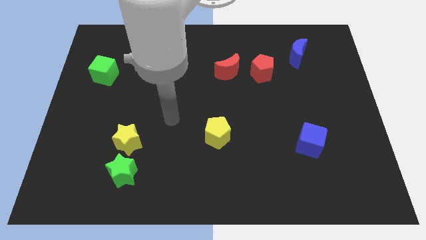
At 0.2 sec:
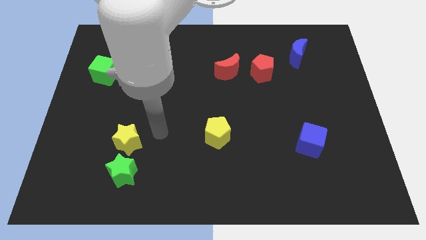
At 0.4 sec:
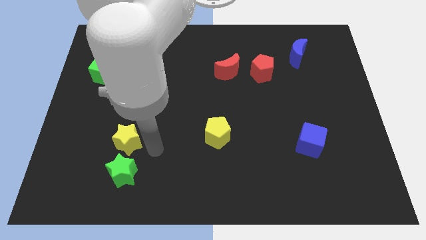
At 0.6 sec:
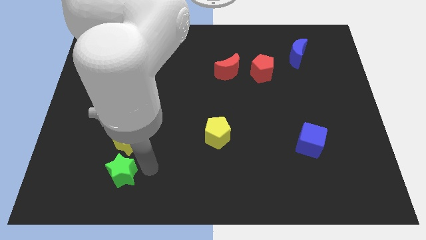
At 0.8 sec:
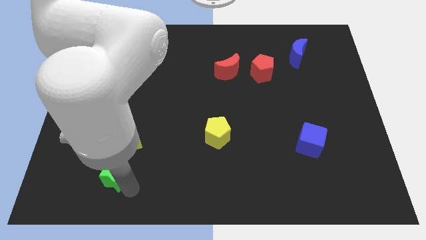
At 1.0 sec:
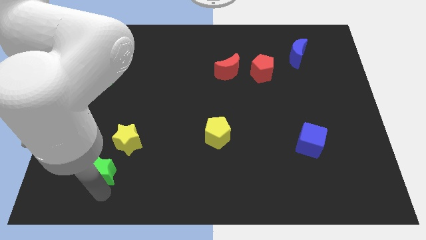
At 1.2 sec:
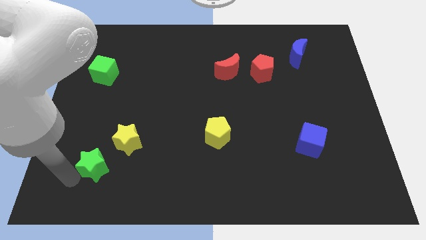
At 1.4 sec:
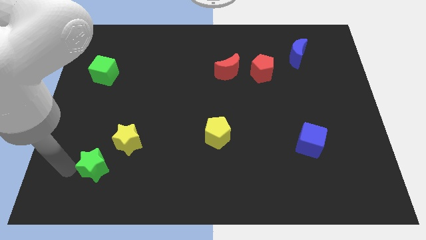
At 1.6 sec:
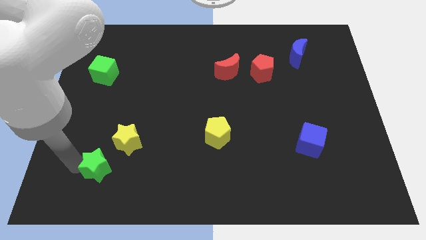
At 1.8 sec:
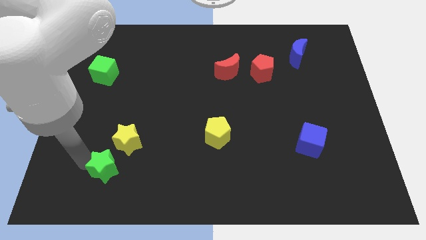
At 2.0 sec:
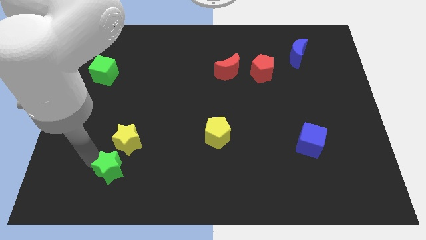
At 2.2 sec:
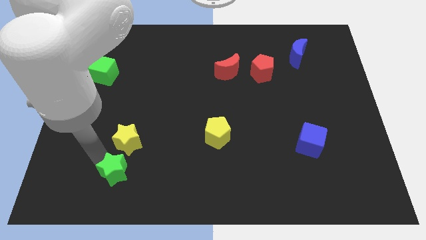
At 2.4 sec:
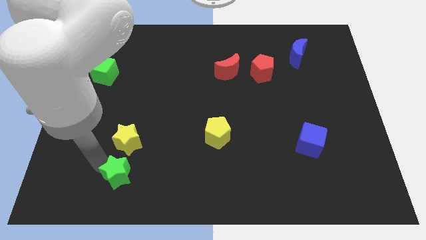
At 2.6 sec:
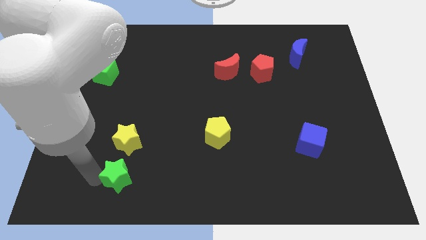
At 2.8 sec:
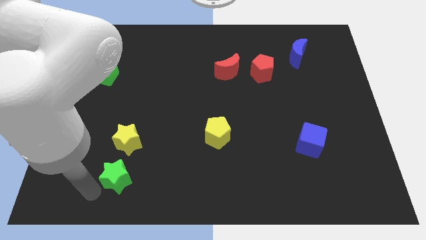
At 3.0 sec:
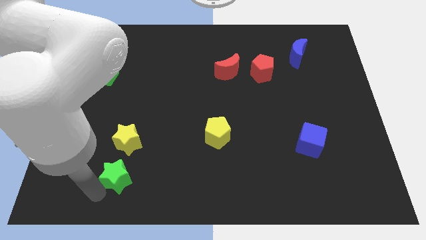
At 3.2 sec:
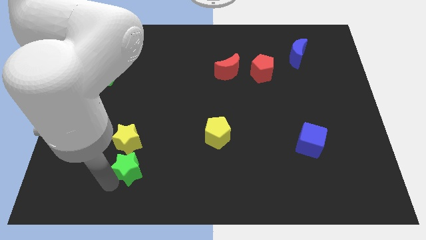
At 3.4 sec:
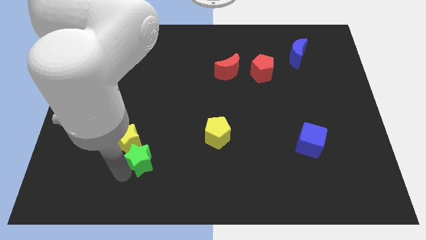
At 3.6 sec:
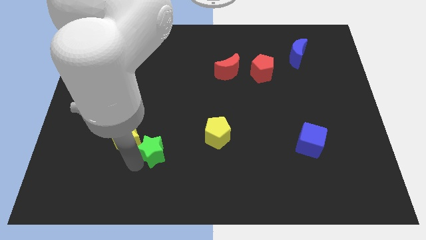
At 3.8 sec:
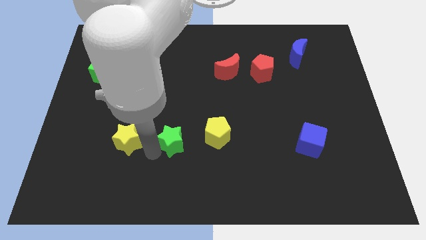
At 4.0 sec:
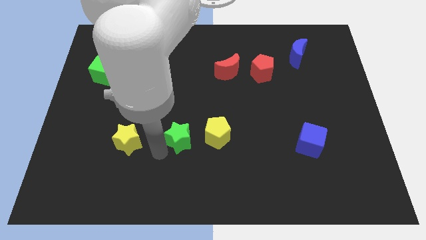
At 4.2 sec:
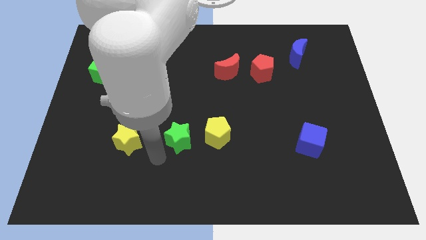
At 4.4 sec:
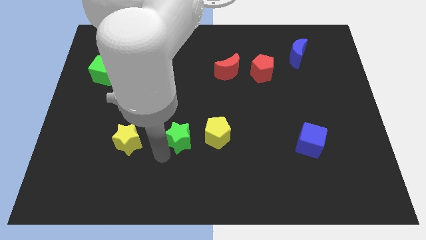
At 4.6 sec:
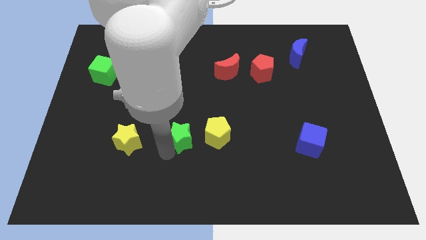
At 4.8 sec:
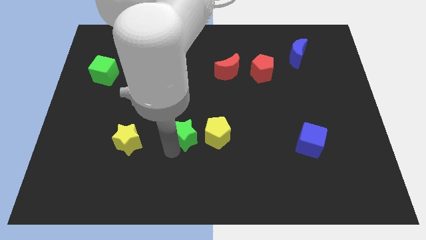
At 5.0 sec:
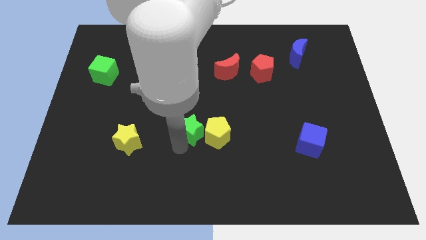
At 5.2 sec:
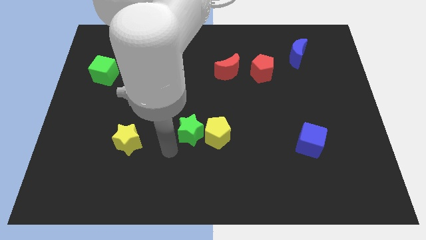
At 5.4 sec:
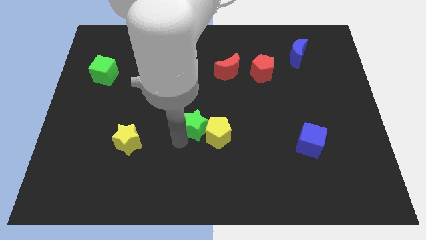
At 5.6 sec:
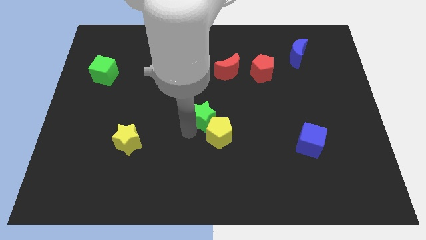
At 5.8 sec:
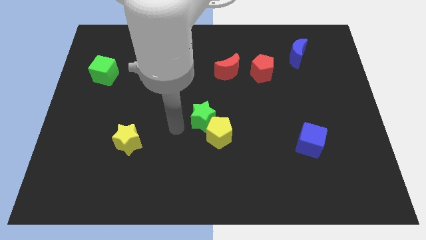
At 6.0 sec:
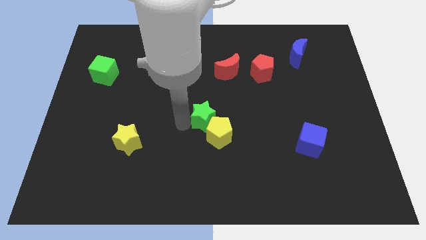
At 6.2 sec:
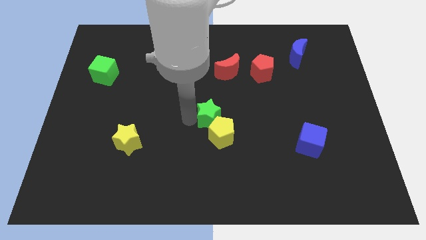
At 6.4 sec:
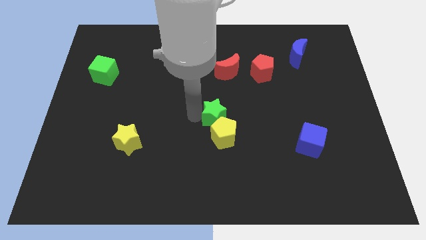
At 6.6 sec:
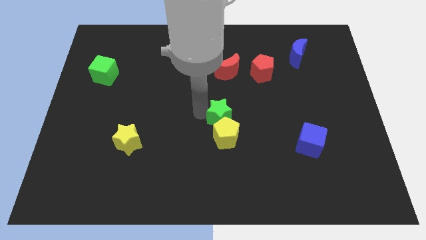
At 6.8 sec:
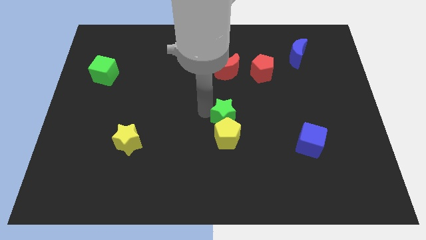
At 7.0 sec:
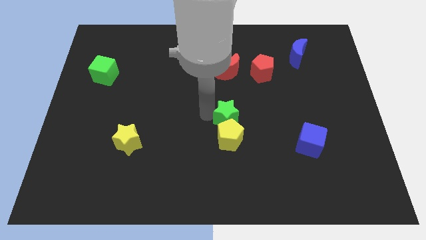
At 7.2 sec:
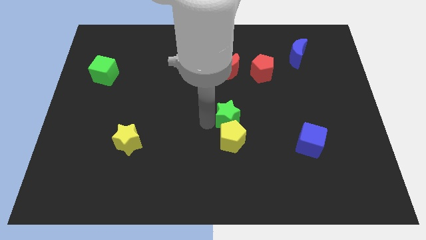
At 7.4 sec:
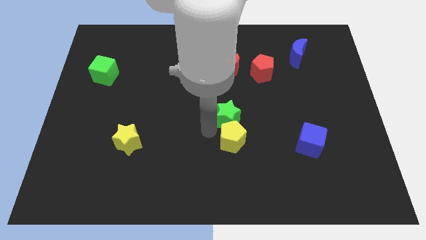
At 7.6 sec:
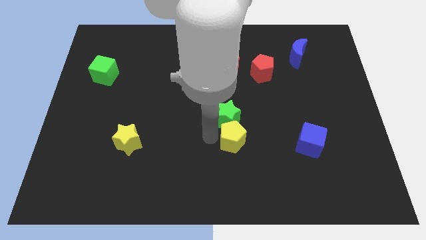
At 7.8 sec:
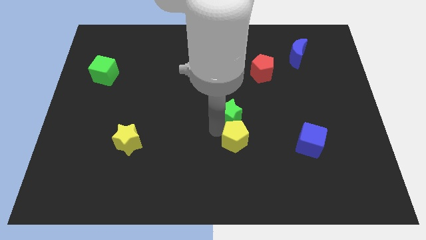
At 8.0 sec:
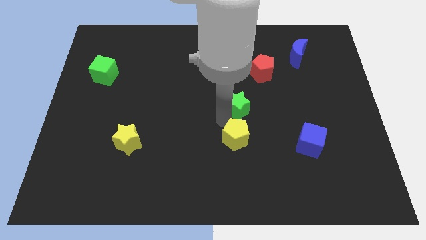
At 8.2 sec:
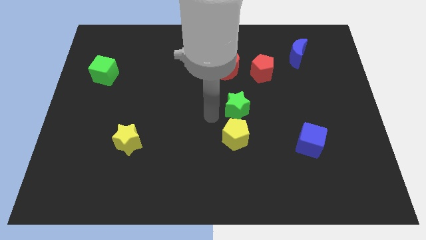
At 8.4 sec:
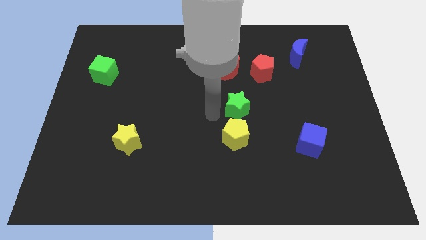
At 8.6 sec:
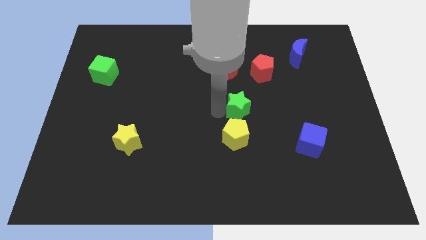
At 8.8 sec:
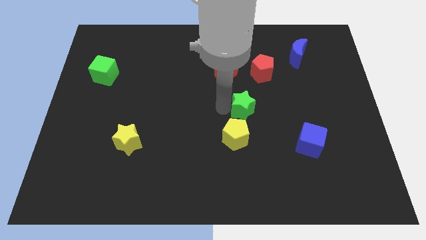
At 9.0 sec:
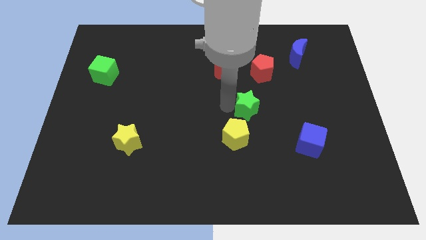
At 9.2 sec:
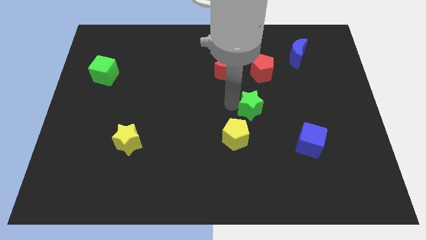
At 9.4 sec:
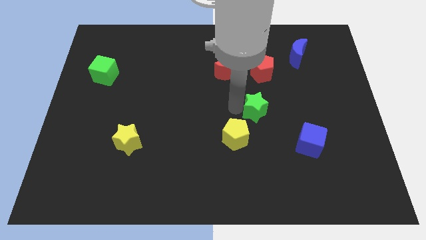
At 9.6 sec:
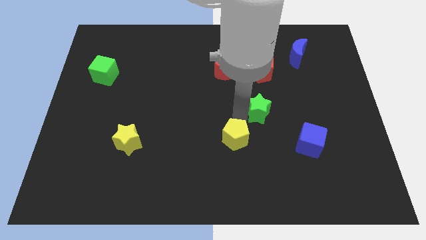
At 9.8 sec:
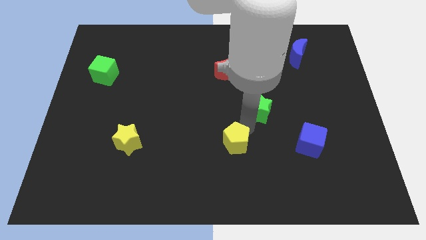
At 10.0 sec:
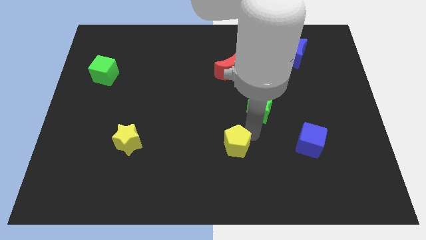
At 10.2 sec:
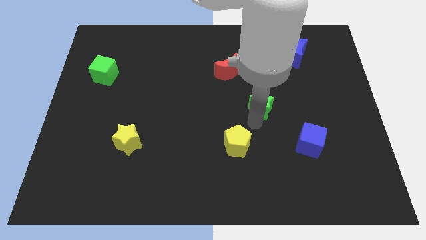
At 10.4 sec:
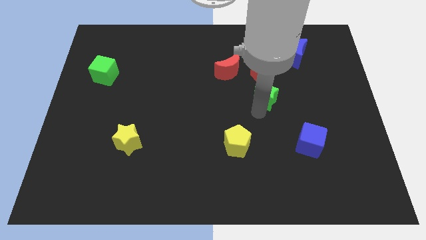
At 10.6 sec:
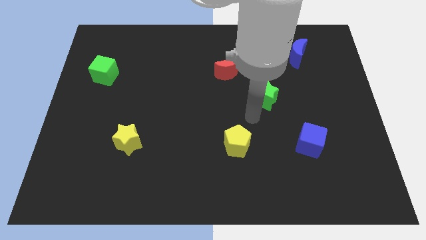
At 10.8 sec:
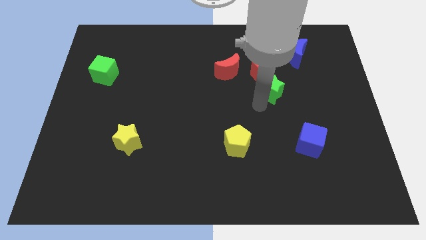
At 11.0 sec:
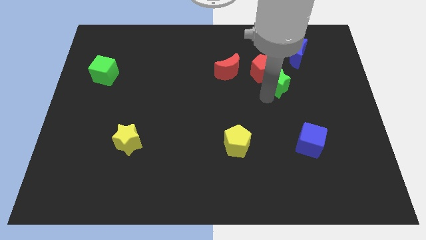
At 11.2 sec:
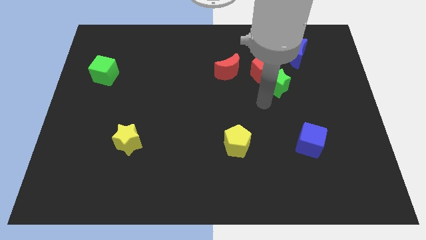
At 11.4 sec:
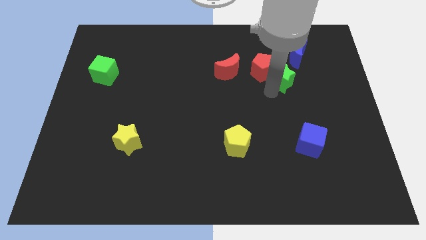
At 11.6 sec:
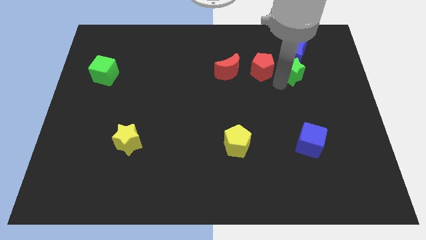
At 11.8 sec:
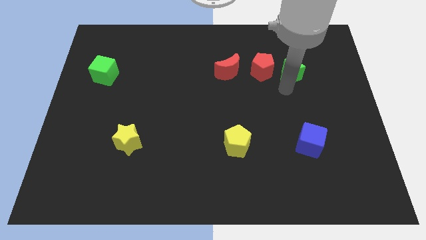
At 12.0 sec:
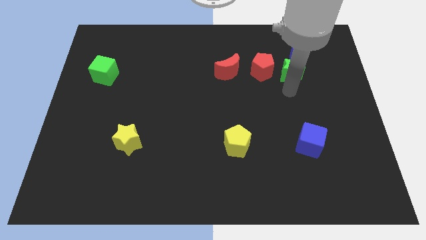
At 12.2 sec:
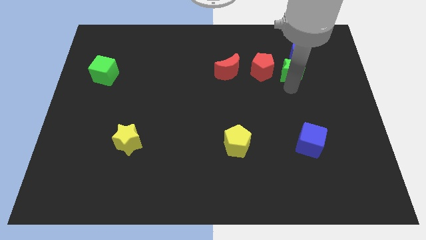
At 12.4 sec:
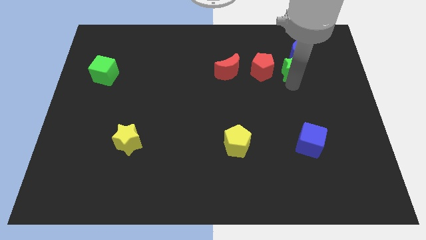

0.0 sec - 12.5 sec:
slide the green star towards the blue moon
